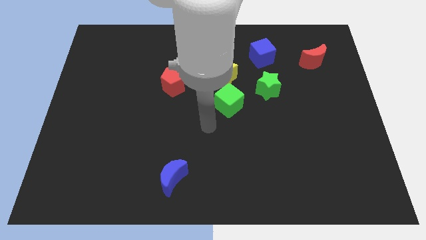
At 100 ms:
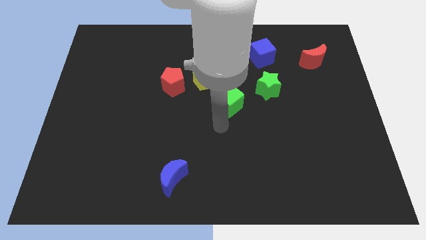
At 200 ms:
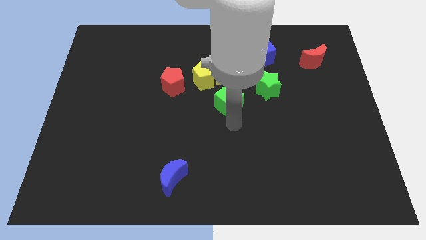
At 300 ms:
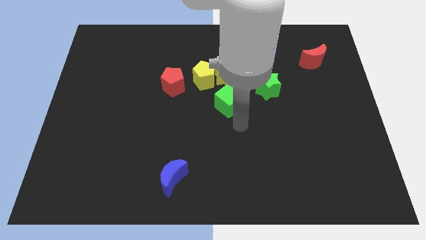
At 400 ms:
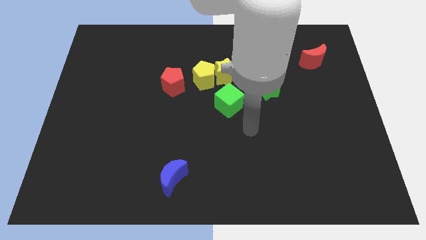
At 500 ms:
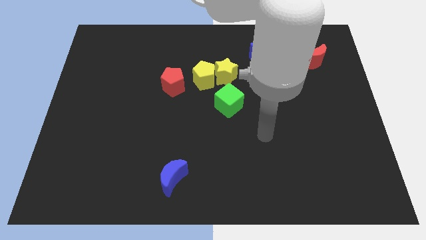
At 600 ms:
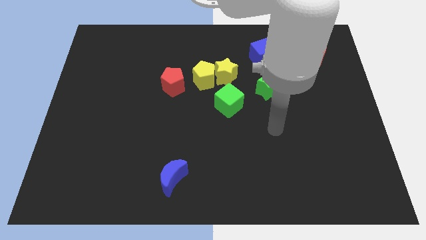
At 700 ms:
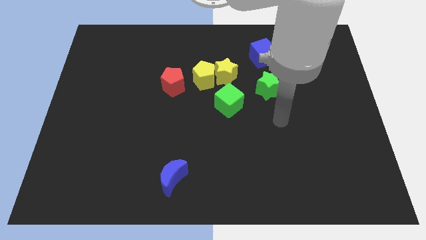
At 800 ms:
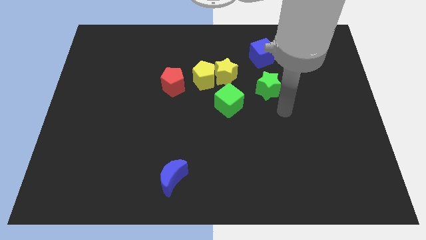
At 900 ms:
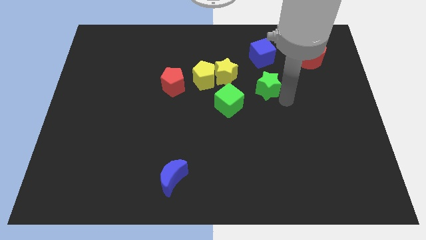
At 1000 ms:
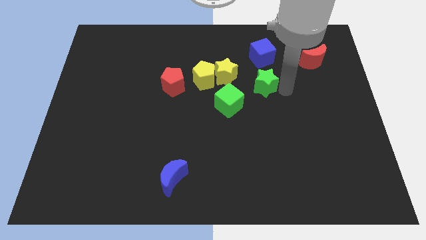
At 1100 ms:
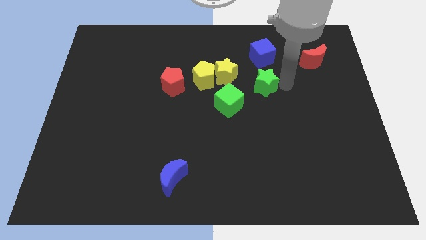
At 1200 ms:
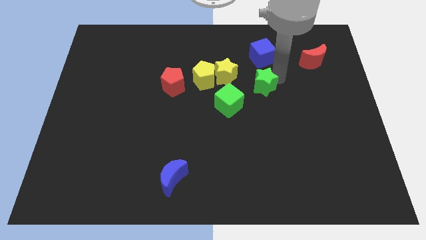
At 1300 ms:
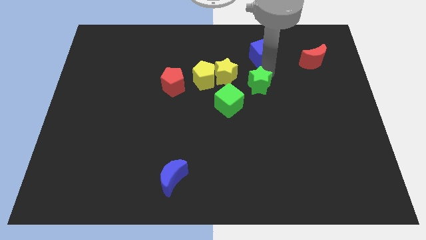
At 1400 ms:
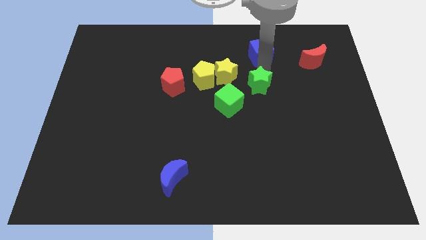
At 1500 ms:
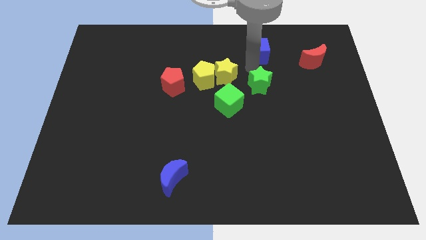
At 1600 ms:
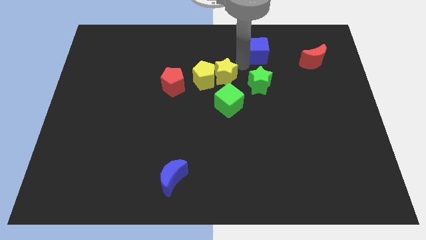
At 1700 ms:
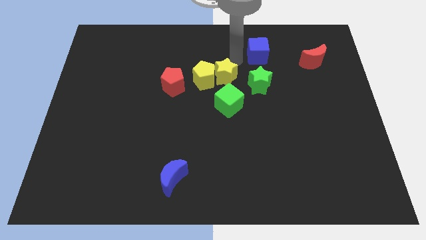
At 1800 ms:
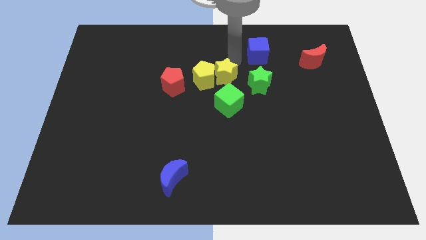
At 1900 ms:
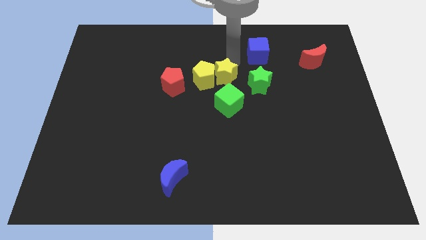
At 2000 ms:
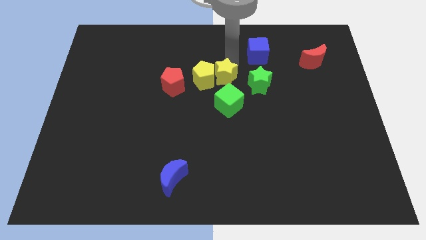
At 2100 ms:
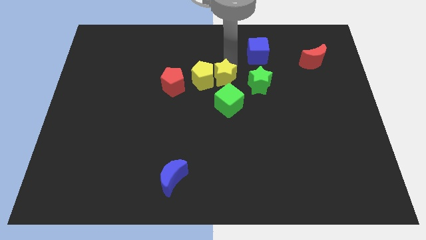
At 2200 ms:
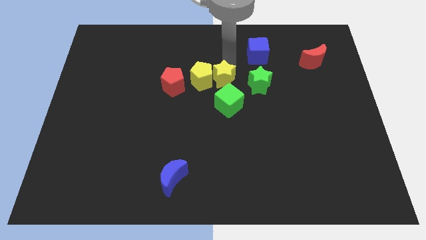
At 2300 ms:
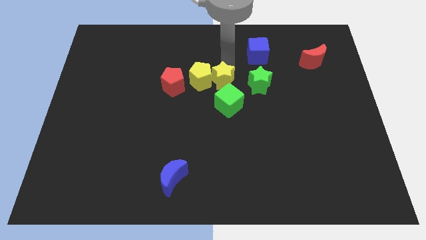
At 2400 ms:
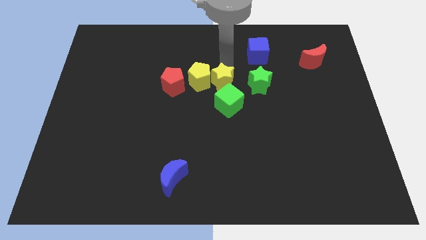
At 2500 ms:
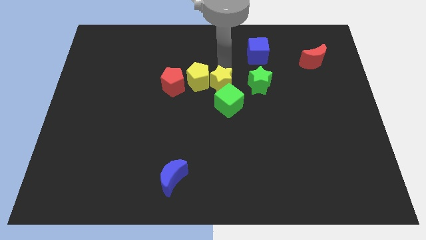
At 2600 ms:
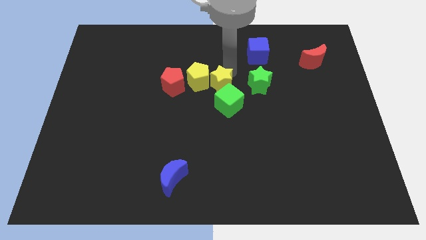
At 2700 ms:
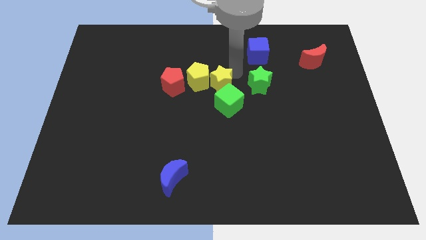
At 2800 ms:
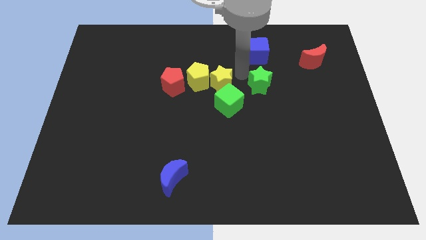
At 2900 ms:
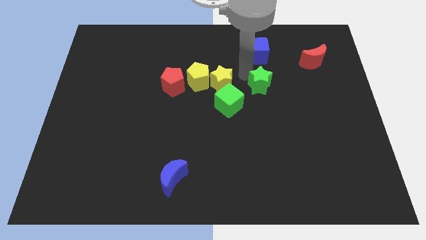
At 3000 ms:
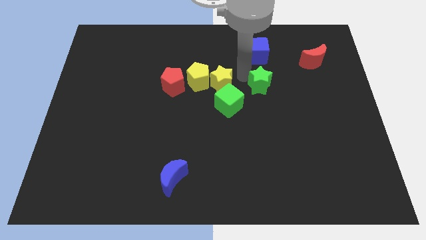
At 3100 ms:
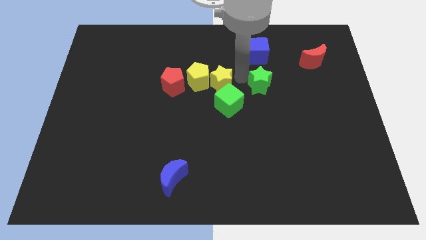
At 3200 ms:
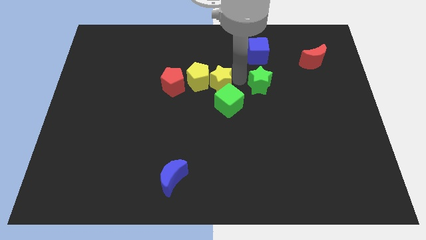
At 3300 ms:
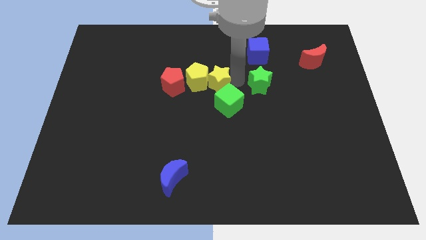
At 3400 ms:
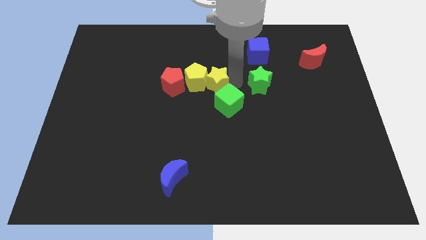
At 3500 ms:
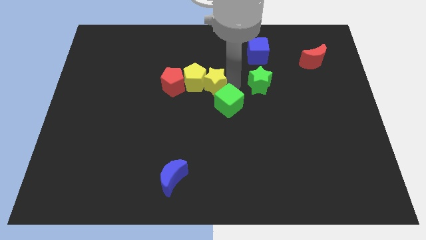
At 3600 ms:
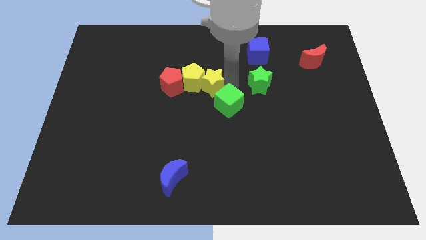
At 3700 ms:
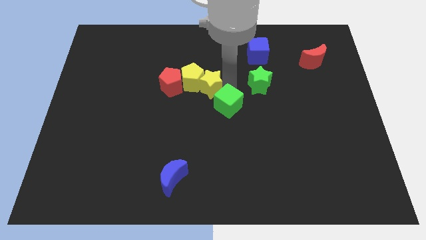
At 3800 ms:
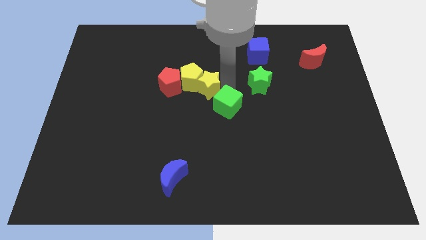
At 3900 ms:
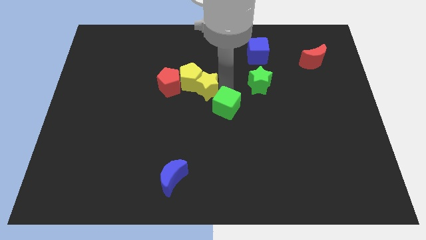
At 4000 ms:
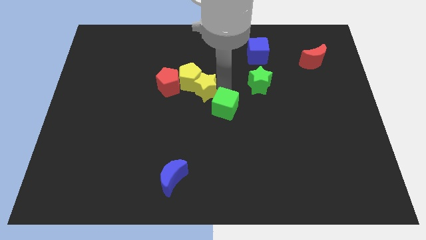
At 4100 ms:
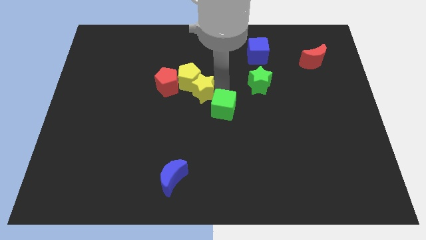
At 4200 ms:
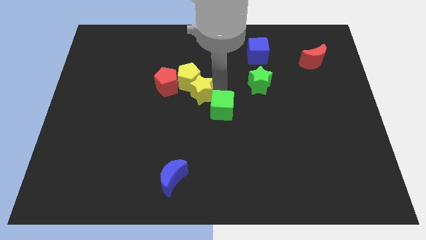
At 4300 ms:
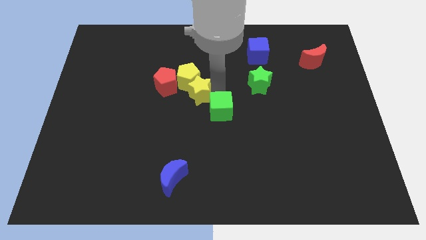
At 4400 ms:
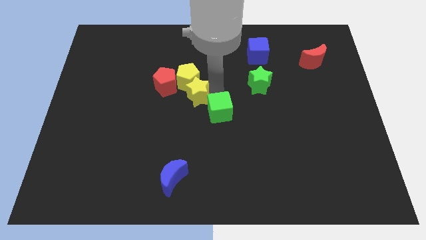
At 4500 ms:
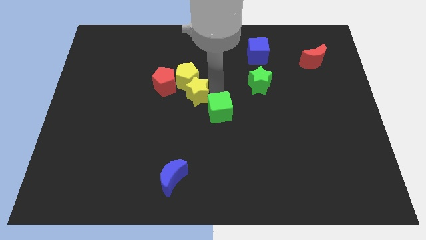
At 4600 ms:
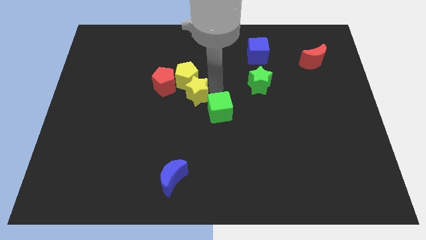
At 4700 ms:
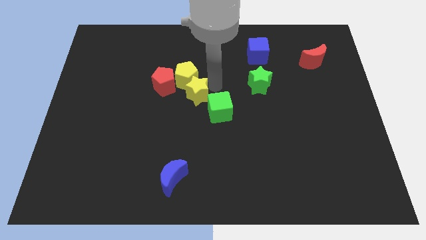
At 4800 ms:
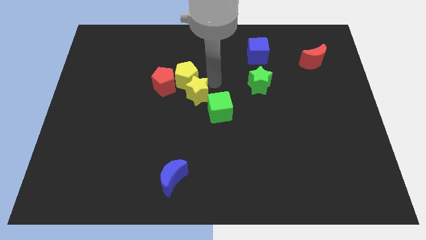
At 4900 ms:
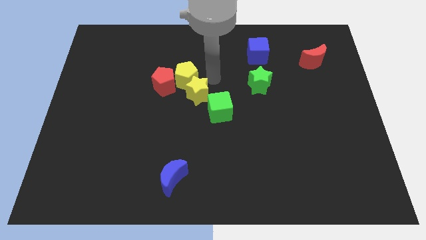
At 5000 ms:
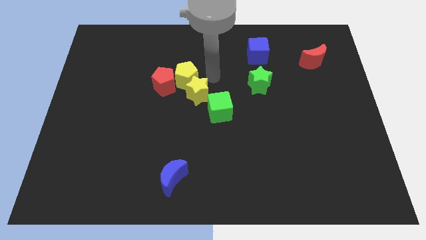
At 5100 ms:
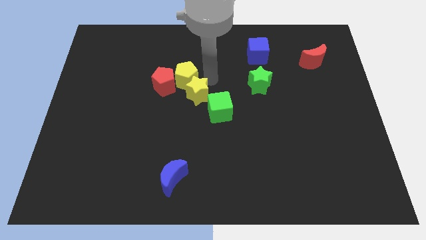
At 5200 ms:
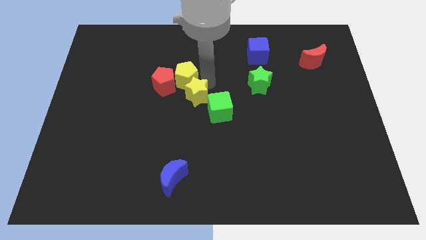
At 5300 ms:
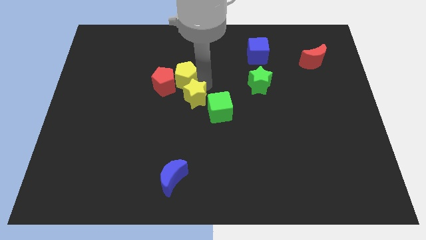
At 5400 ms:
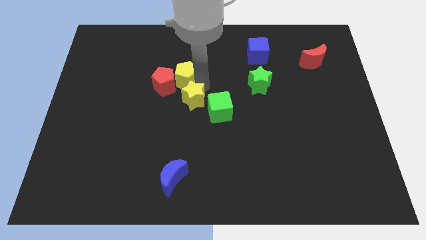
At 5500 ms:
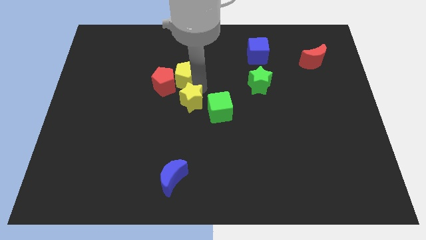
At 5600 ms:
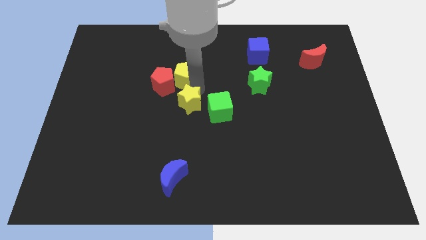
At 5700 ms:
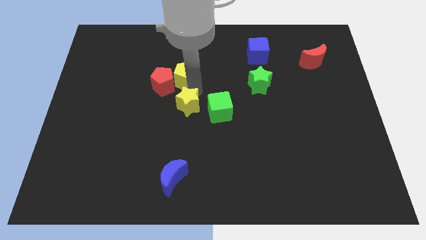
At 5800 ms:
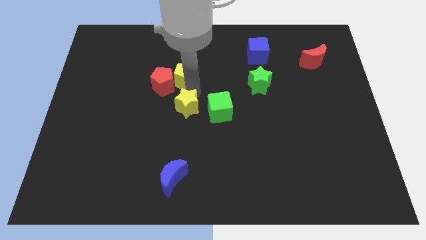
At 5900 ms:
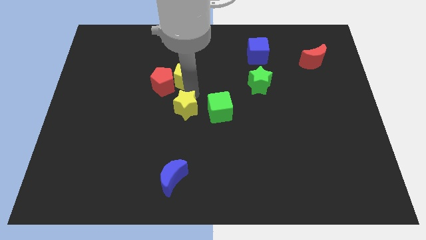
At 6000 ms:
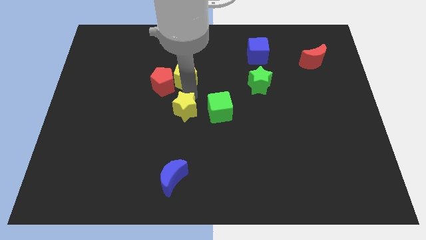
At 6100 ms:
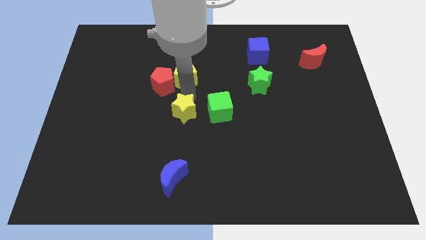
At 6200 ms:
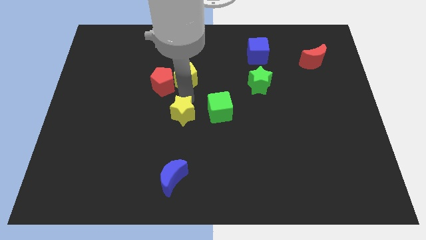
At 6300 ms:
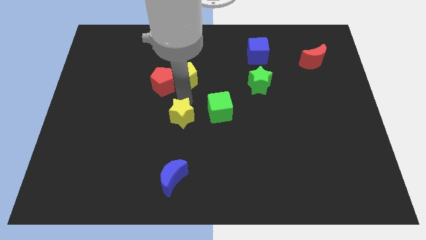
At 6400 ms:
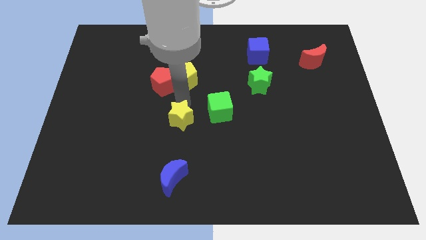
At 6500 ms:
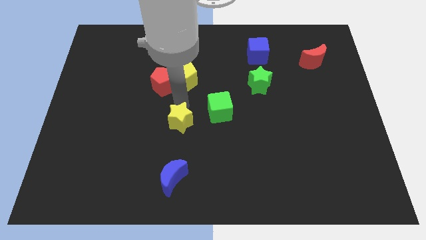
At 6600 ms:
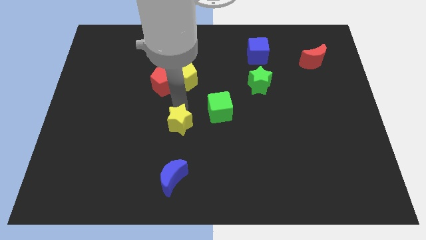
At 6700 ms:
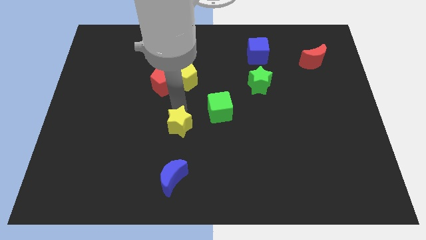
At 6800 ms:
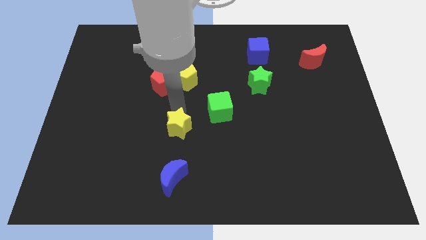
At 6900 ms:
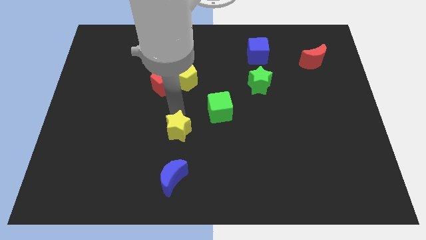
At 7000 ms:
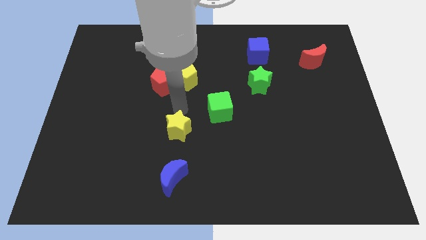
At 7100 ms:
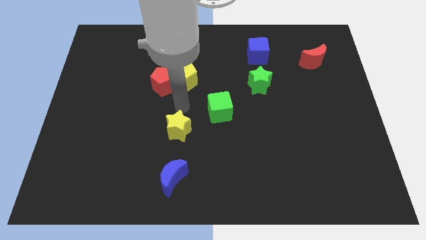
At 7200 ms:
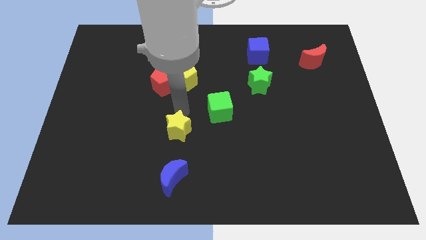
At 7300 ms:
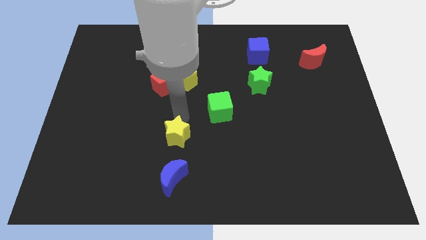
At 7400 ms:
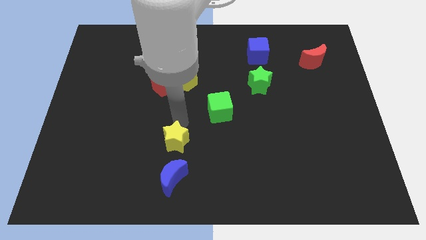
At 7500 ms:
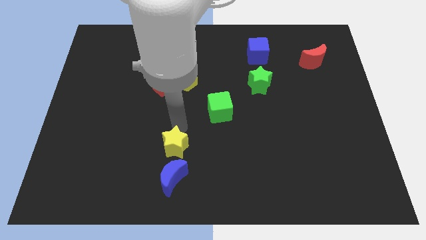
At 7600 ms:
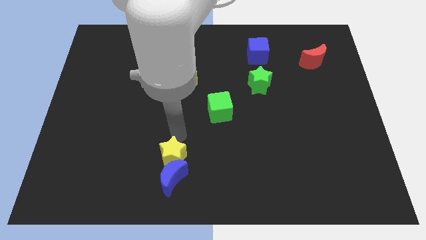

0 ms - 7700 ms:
put the yellow star next to the blue moon
